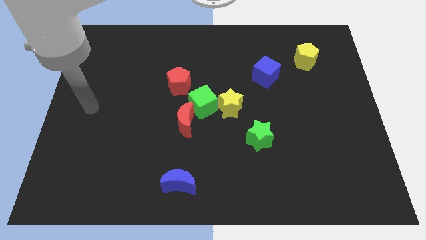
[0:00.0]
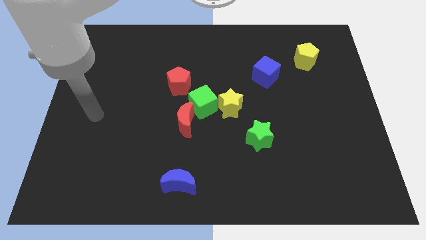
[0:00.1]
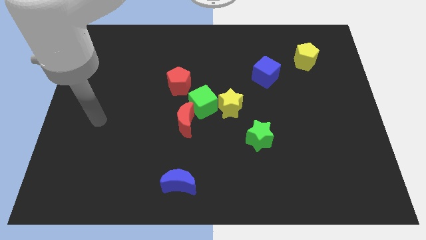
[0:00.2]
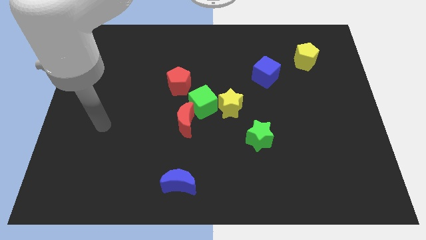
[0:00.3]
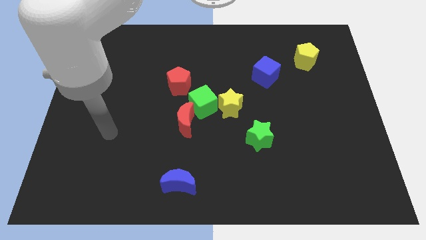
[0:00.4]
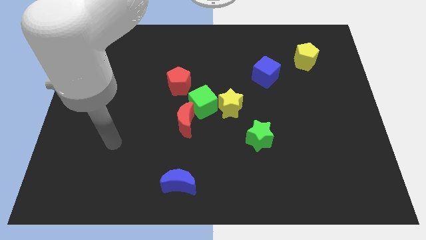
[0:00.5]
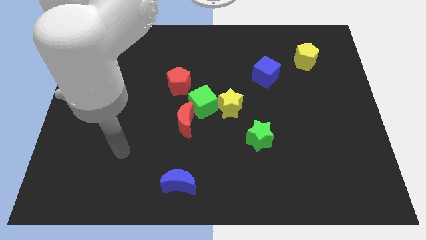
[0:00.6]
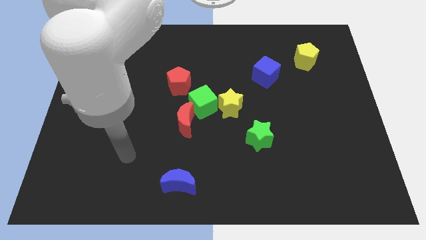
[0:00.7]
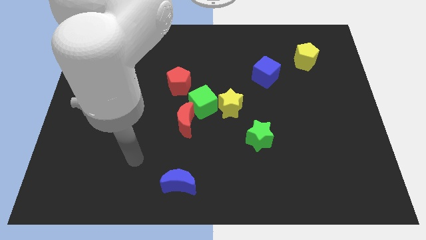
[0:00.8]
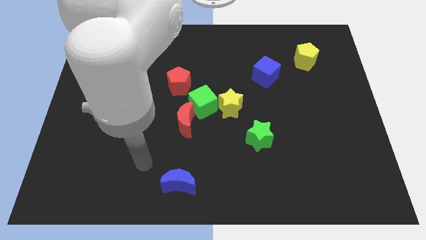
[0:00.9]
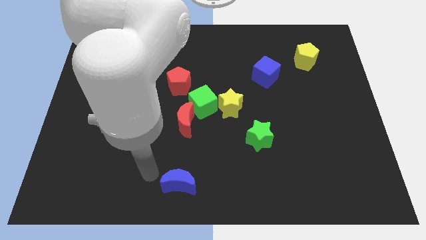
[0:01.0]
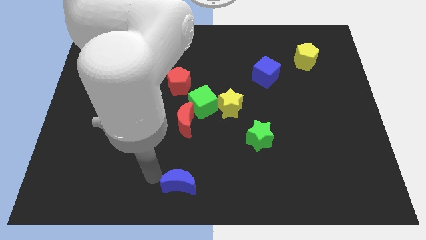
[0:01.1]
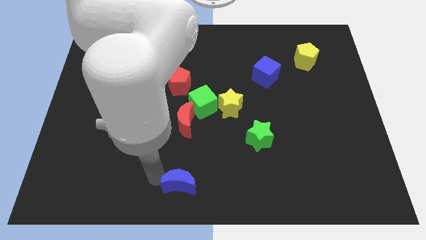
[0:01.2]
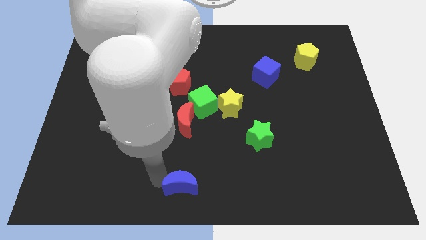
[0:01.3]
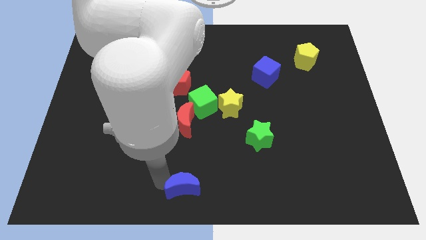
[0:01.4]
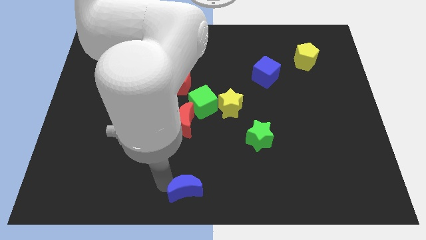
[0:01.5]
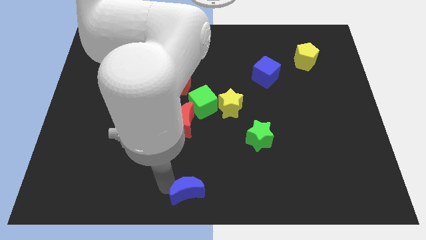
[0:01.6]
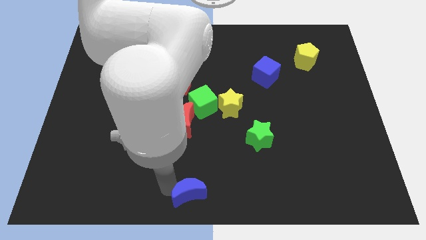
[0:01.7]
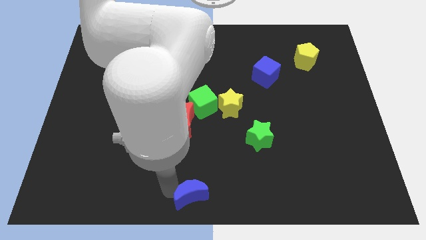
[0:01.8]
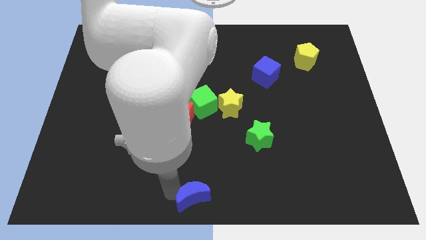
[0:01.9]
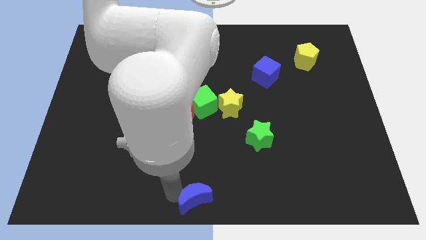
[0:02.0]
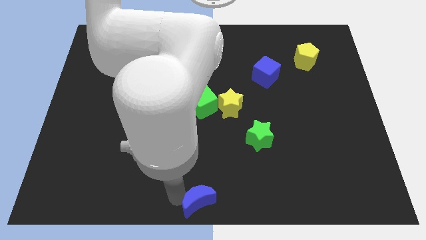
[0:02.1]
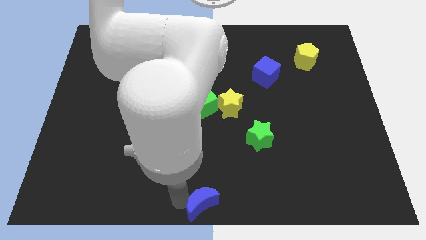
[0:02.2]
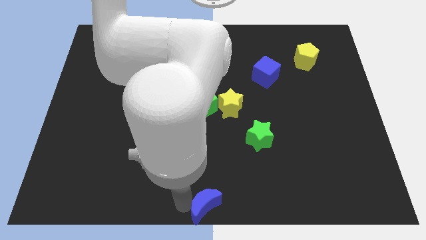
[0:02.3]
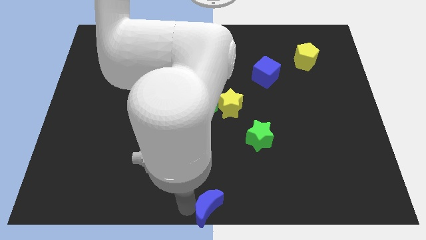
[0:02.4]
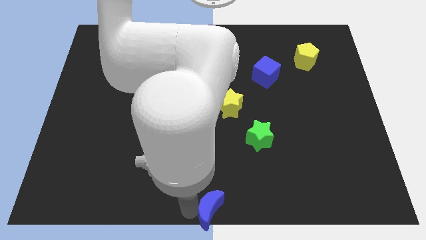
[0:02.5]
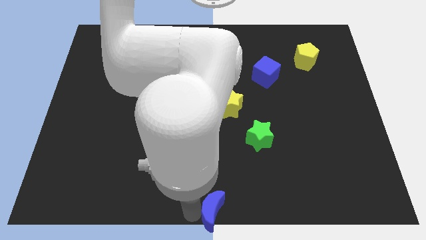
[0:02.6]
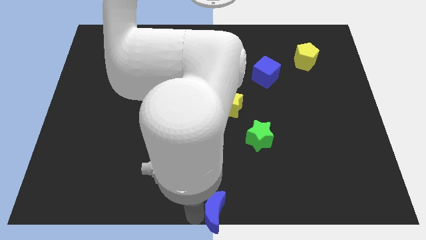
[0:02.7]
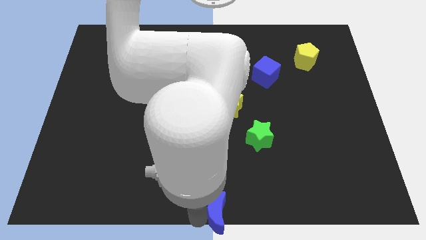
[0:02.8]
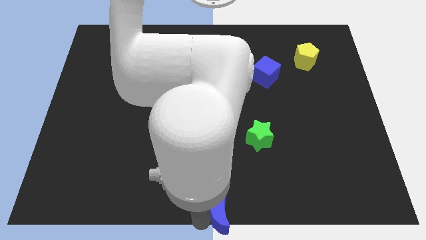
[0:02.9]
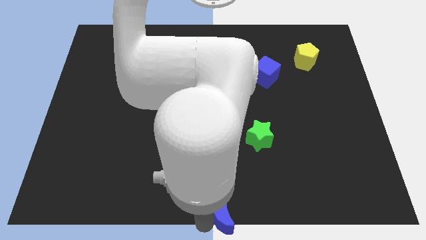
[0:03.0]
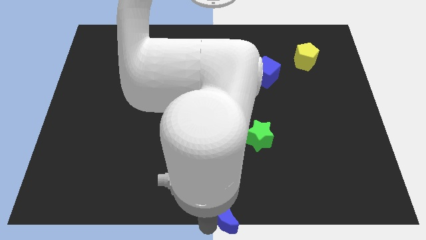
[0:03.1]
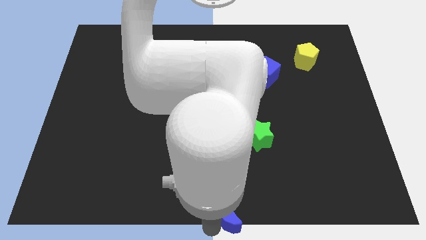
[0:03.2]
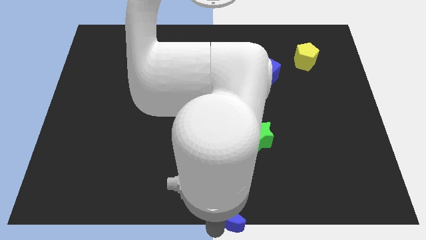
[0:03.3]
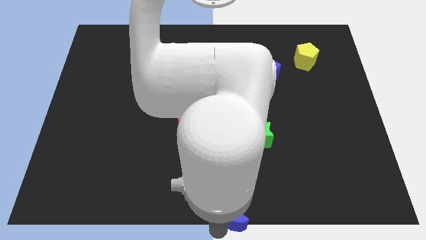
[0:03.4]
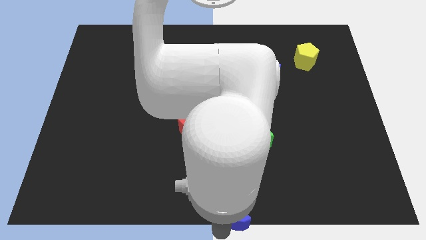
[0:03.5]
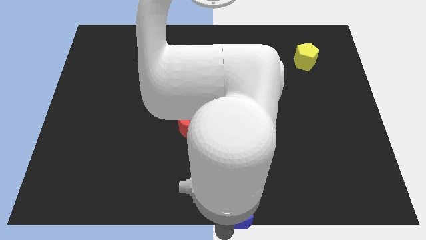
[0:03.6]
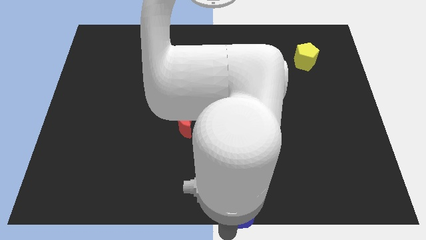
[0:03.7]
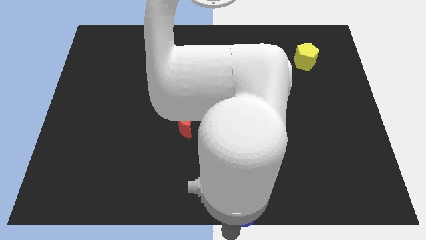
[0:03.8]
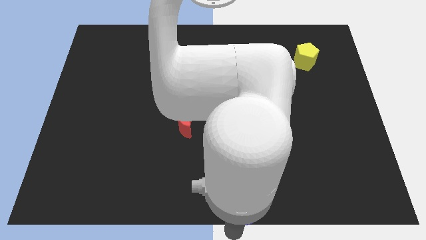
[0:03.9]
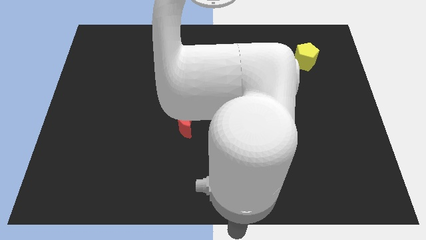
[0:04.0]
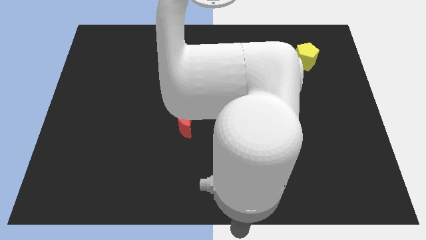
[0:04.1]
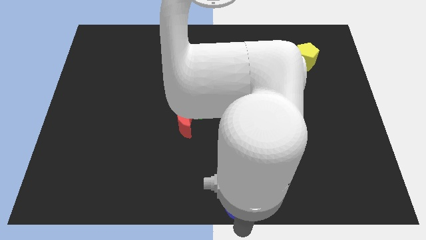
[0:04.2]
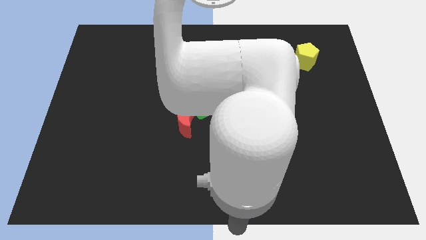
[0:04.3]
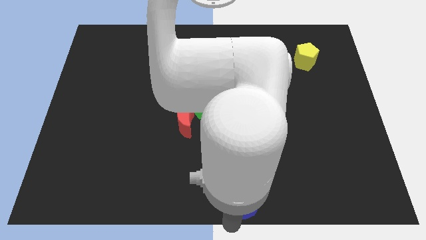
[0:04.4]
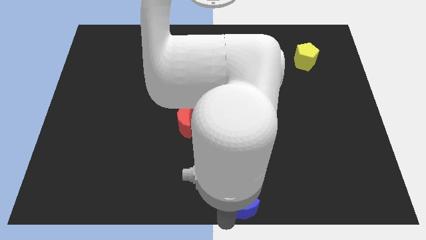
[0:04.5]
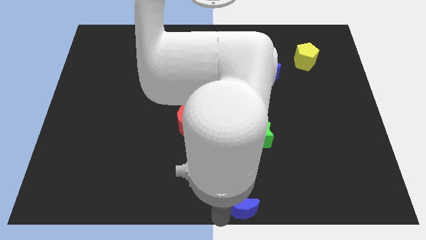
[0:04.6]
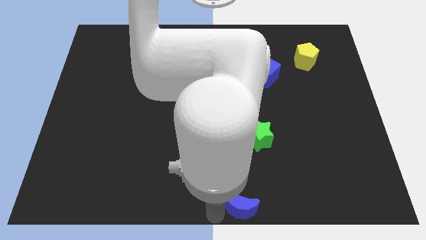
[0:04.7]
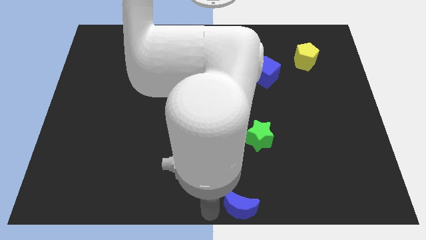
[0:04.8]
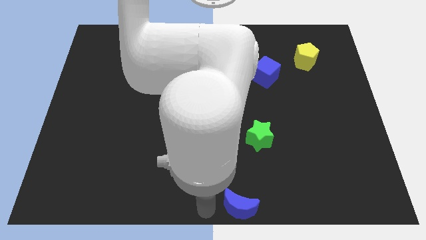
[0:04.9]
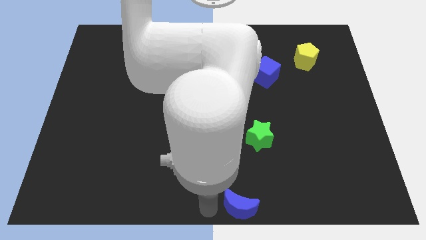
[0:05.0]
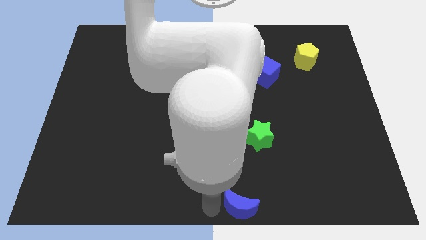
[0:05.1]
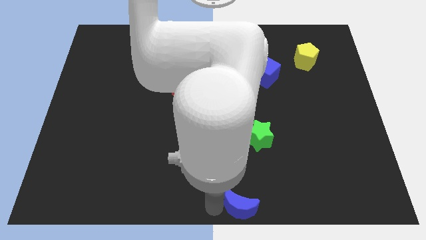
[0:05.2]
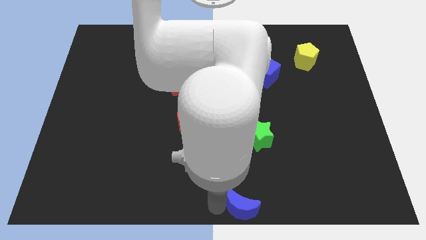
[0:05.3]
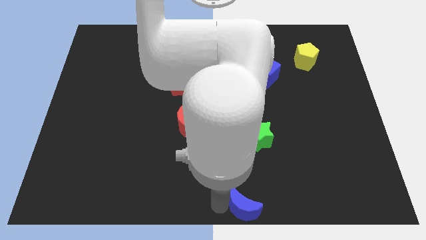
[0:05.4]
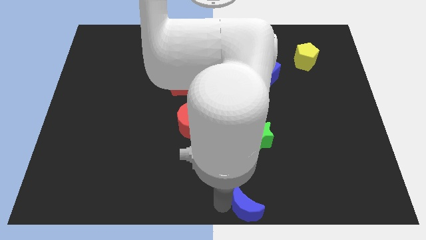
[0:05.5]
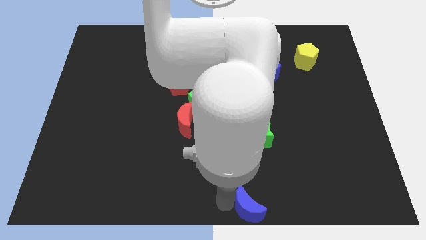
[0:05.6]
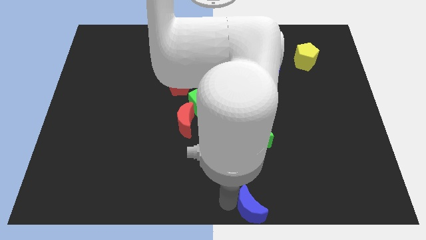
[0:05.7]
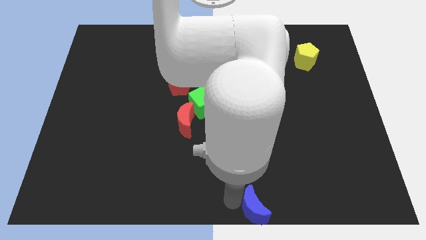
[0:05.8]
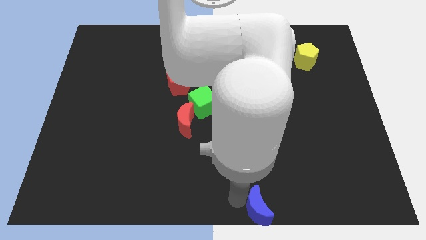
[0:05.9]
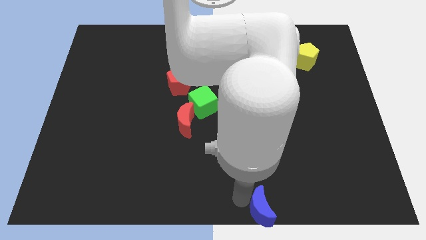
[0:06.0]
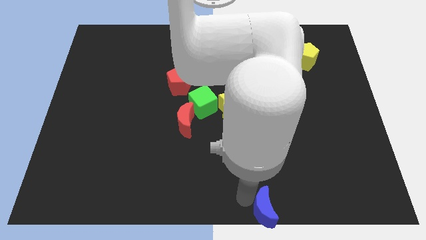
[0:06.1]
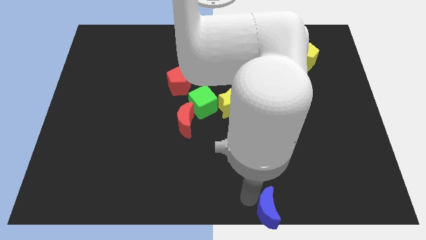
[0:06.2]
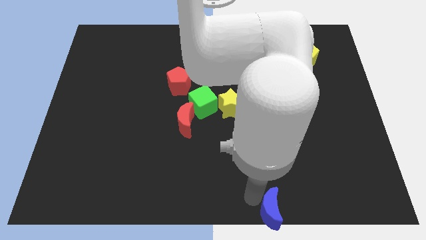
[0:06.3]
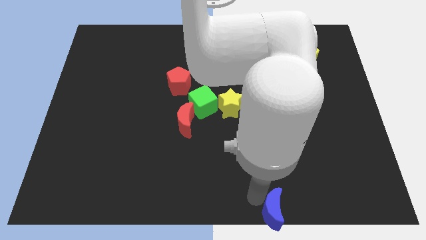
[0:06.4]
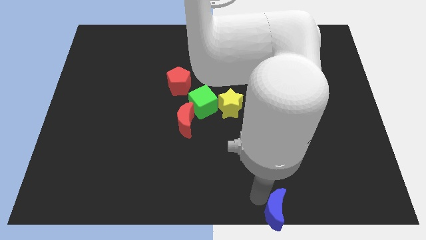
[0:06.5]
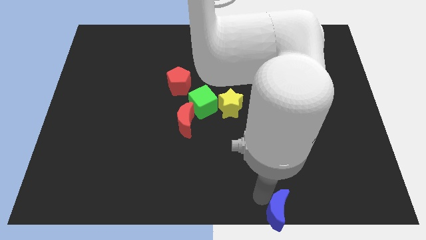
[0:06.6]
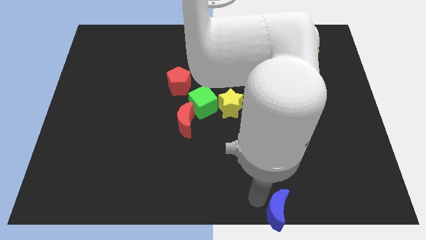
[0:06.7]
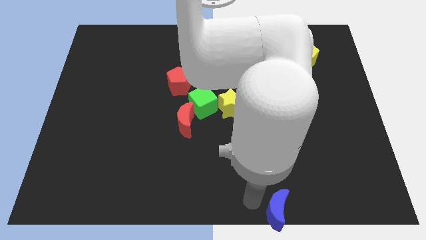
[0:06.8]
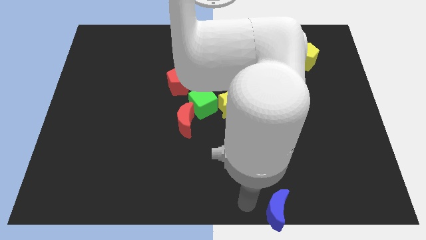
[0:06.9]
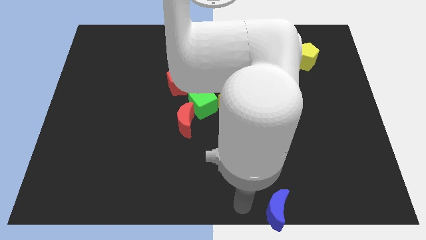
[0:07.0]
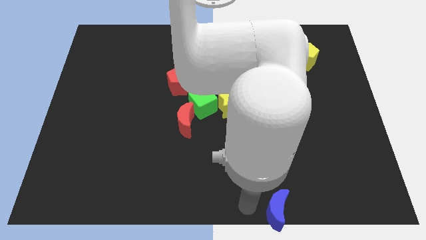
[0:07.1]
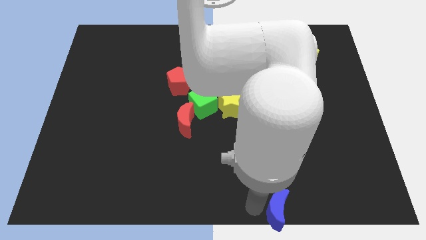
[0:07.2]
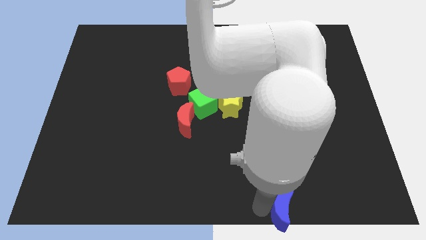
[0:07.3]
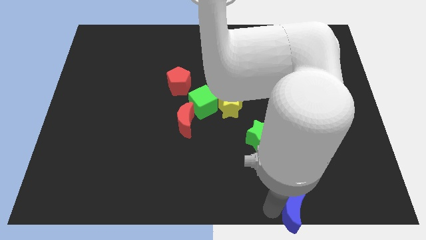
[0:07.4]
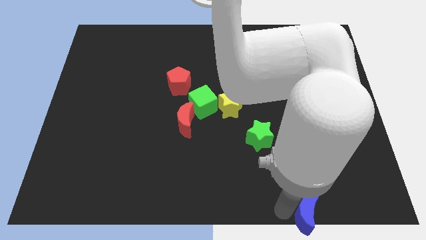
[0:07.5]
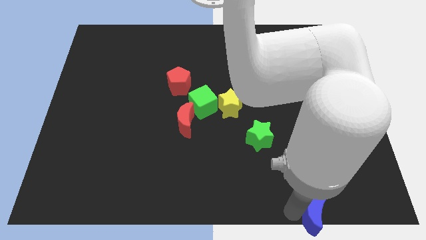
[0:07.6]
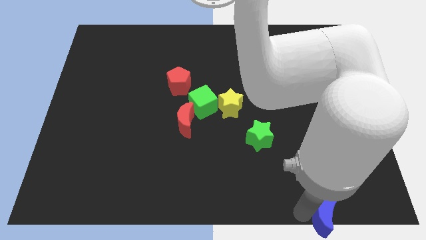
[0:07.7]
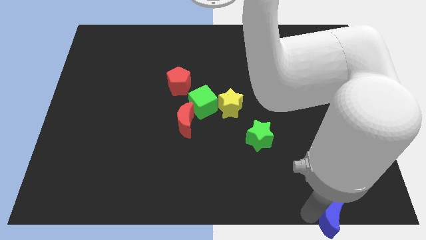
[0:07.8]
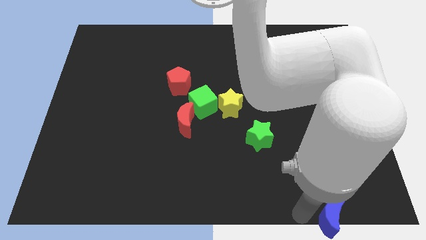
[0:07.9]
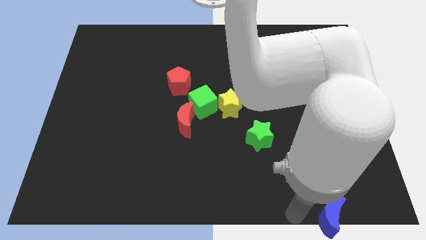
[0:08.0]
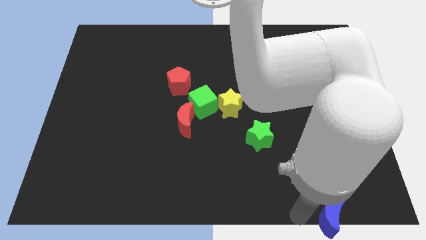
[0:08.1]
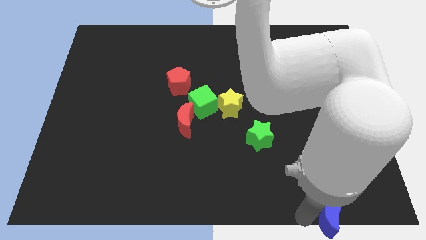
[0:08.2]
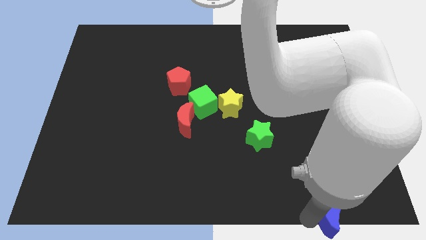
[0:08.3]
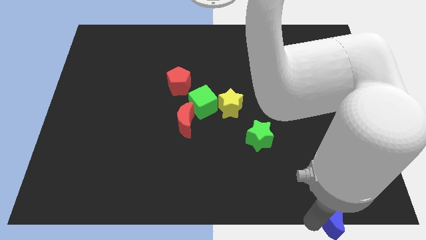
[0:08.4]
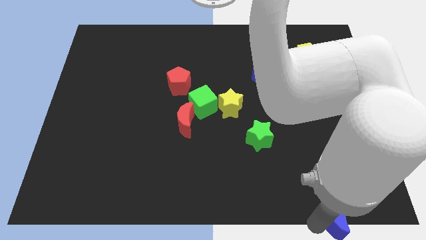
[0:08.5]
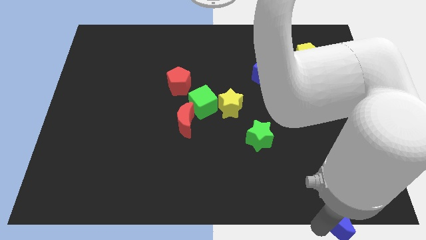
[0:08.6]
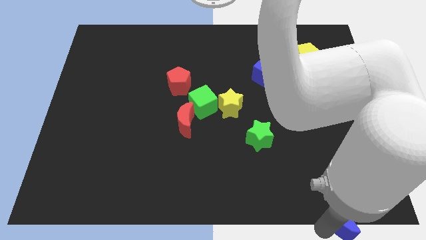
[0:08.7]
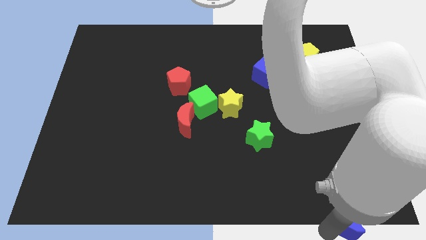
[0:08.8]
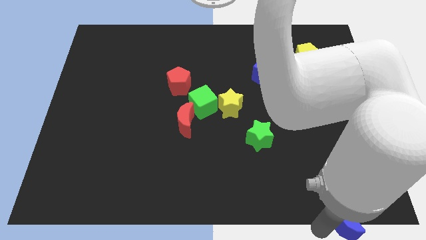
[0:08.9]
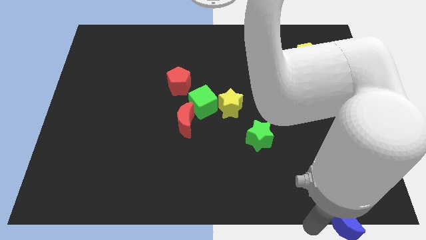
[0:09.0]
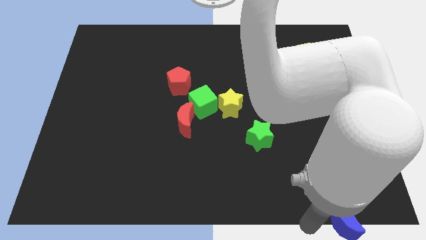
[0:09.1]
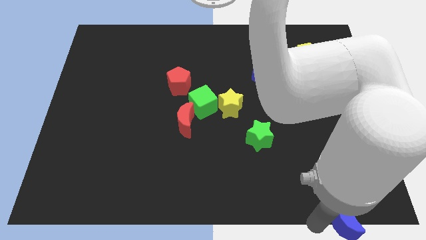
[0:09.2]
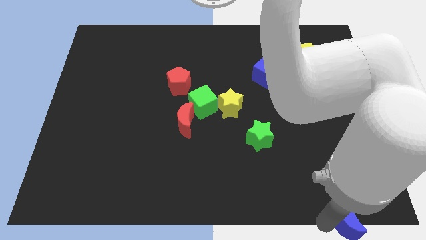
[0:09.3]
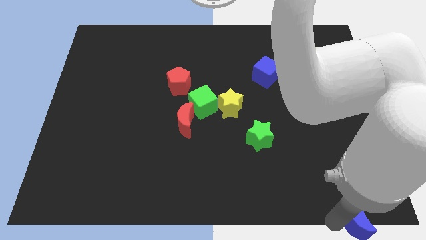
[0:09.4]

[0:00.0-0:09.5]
put the blue moon to the bottom right
